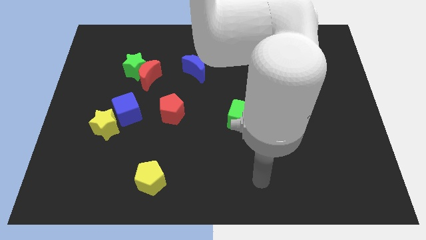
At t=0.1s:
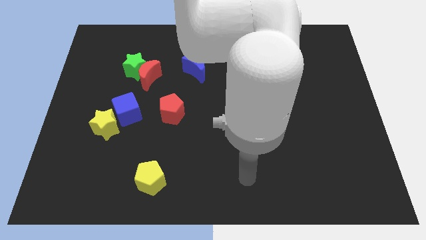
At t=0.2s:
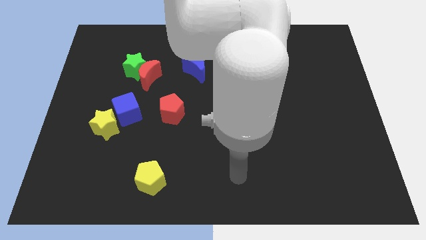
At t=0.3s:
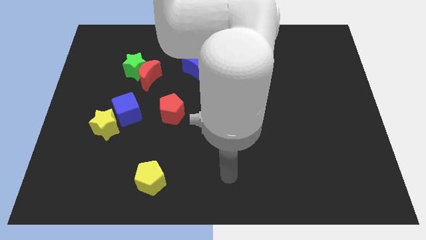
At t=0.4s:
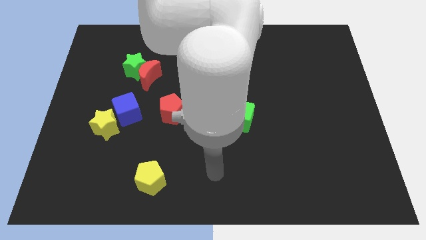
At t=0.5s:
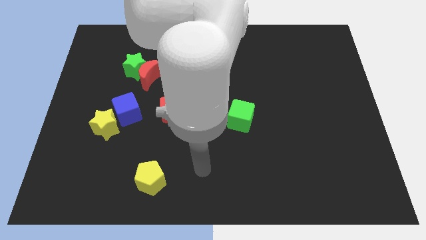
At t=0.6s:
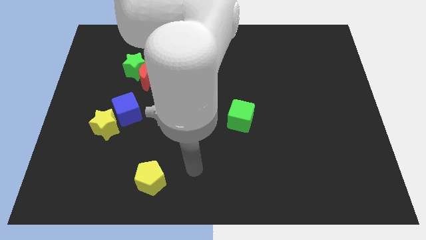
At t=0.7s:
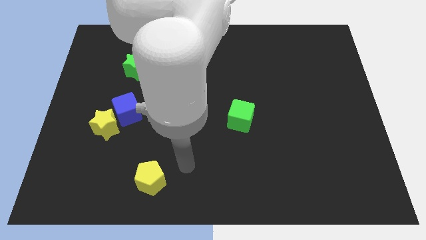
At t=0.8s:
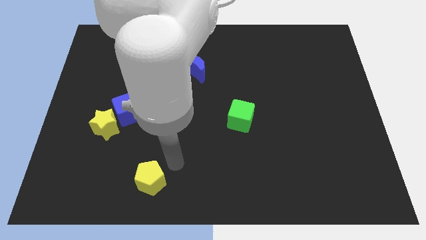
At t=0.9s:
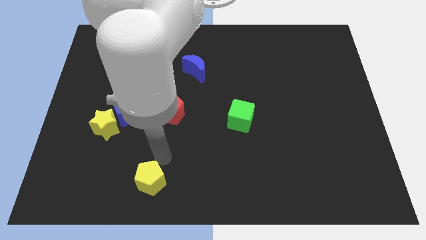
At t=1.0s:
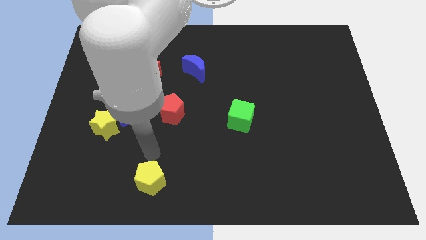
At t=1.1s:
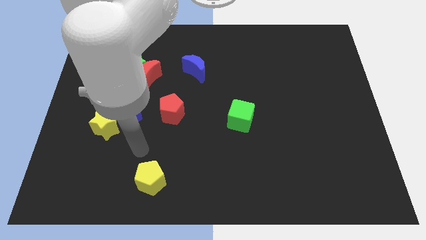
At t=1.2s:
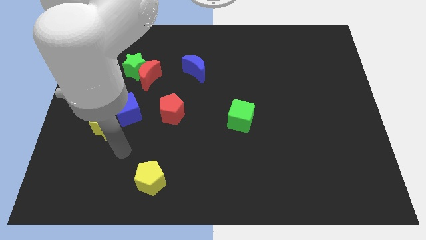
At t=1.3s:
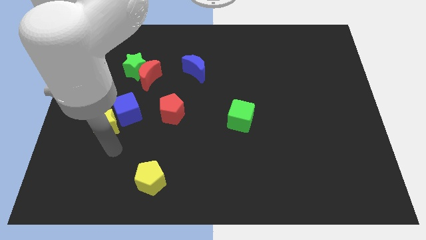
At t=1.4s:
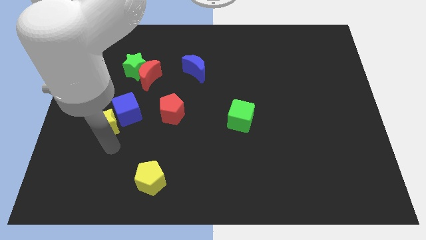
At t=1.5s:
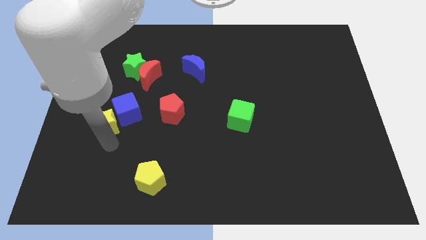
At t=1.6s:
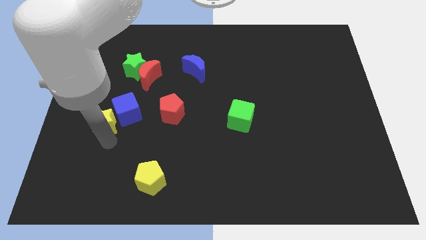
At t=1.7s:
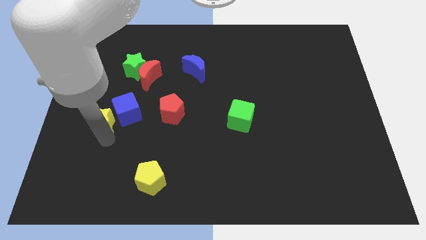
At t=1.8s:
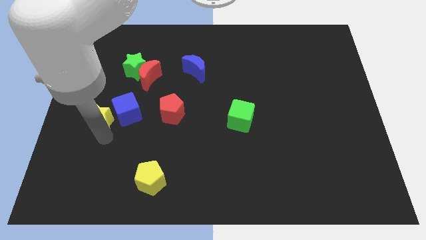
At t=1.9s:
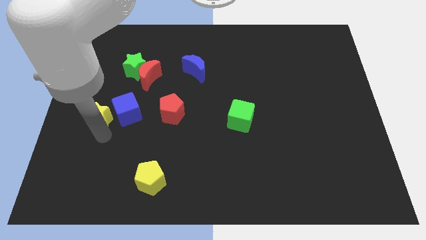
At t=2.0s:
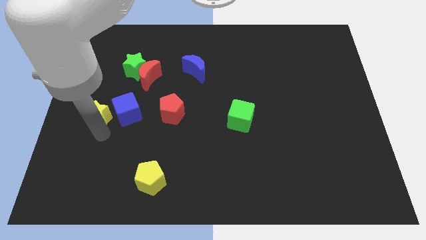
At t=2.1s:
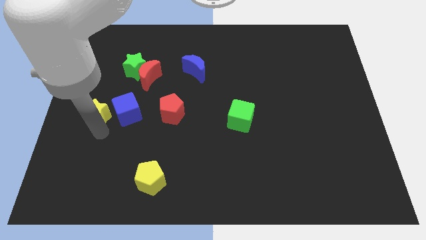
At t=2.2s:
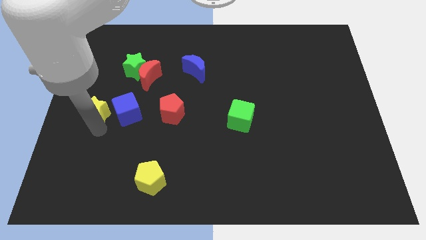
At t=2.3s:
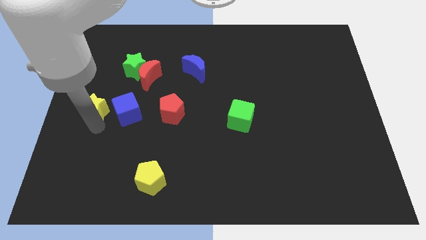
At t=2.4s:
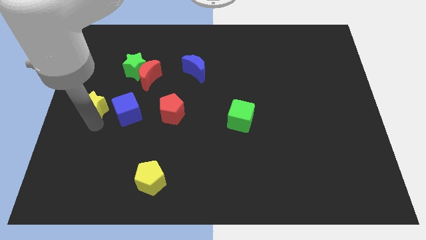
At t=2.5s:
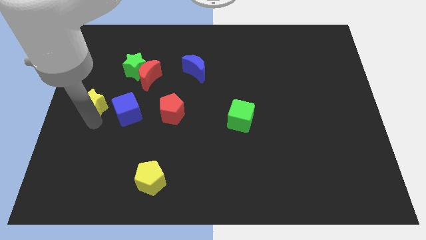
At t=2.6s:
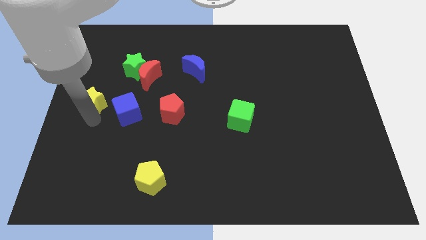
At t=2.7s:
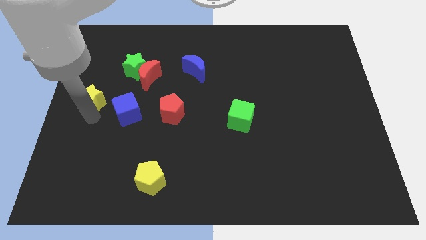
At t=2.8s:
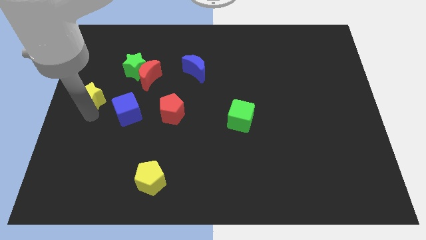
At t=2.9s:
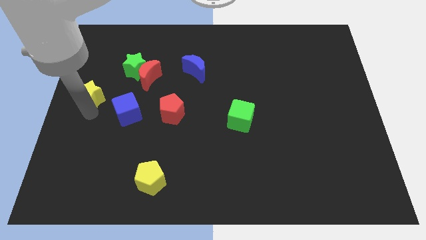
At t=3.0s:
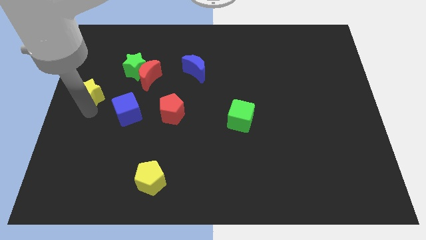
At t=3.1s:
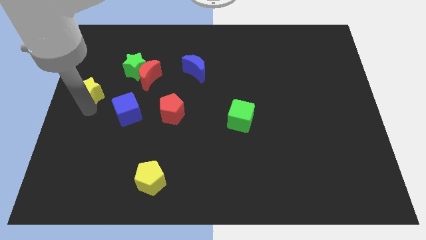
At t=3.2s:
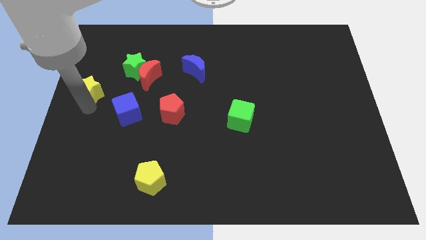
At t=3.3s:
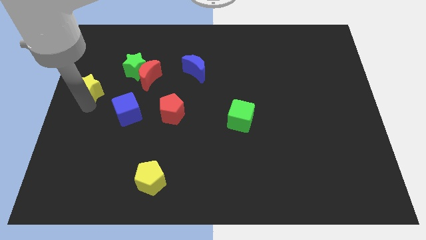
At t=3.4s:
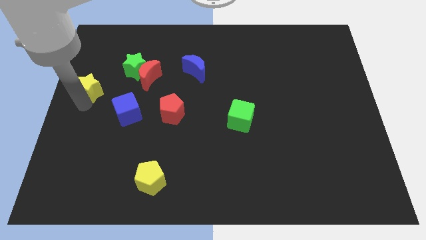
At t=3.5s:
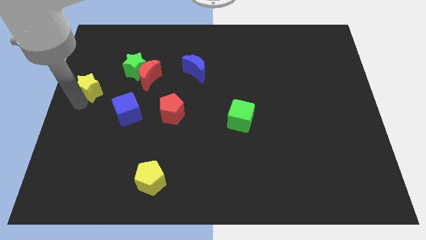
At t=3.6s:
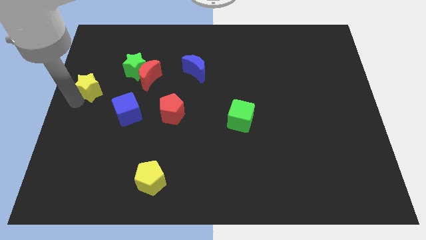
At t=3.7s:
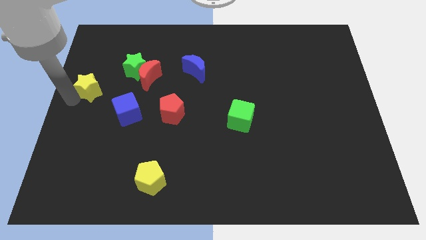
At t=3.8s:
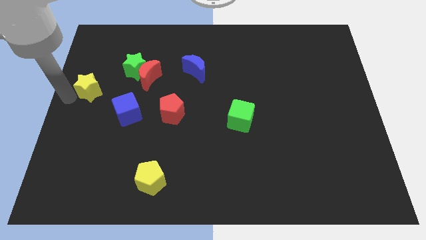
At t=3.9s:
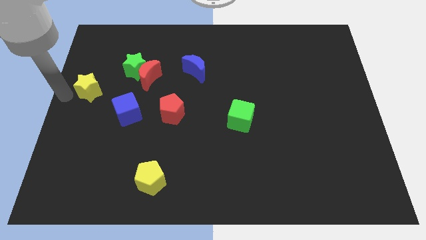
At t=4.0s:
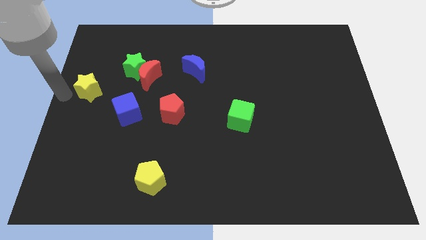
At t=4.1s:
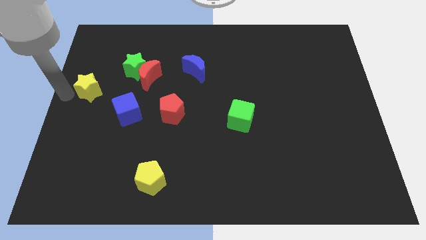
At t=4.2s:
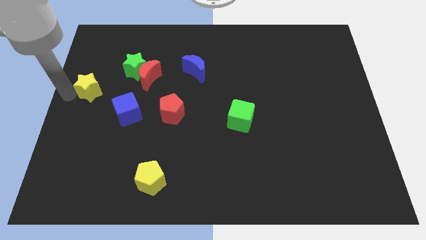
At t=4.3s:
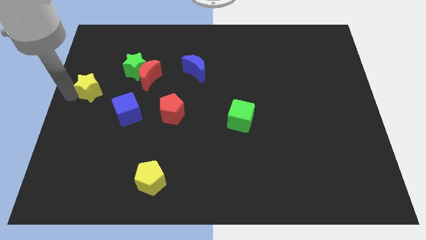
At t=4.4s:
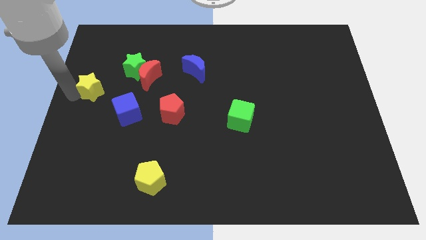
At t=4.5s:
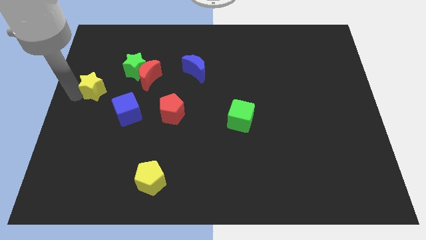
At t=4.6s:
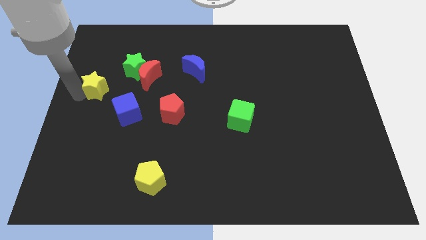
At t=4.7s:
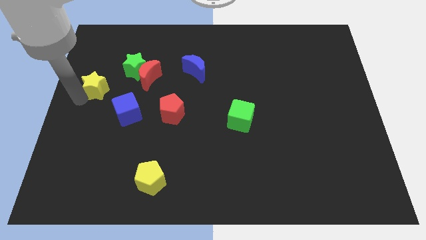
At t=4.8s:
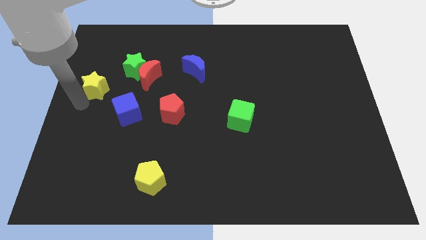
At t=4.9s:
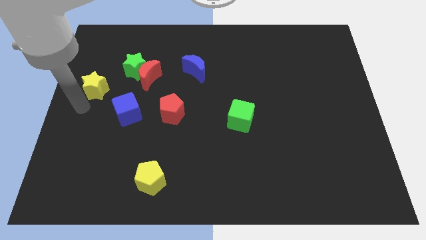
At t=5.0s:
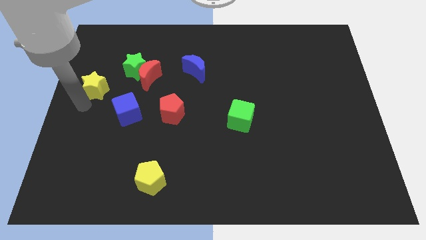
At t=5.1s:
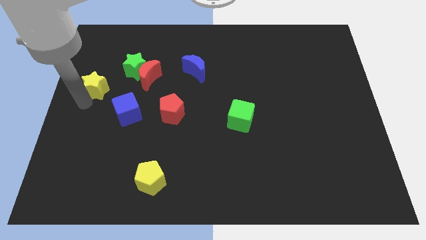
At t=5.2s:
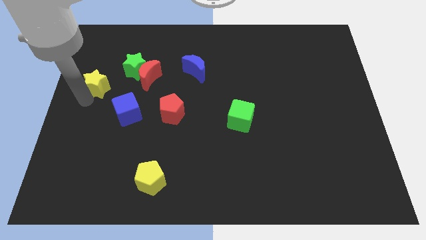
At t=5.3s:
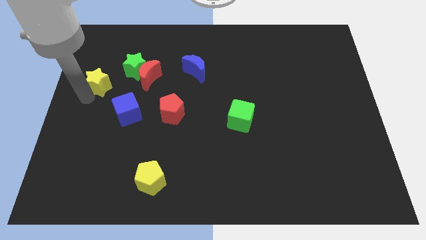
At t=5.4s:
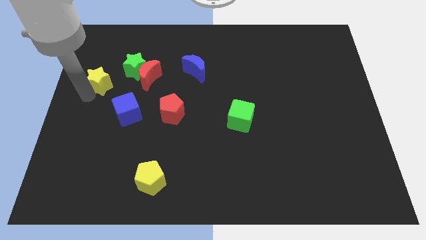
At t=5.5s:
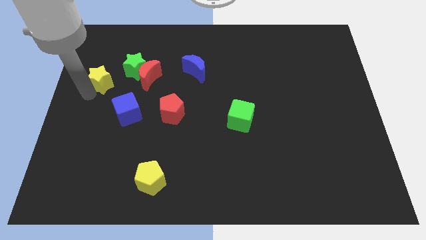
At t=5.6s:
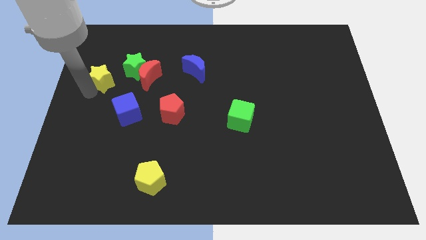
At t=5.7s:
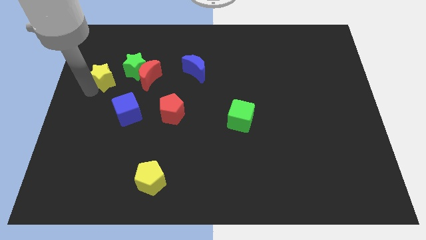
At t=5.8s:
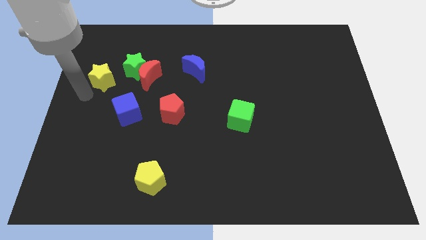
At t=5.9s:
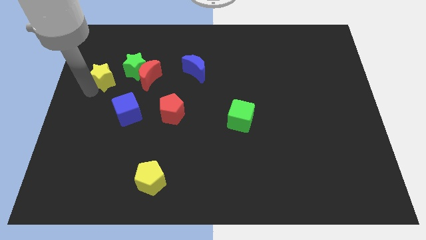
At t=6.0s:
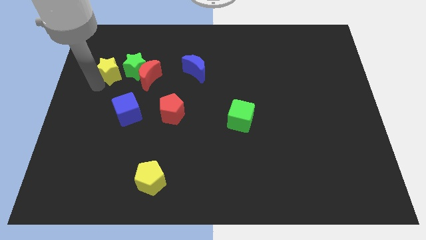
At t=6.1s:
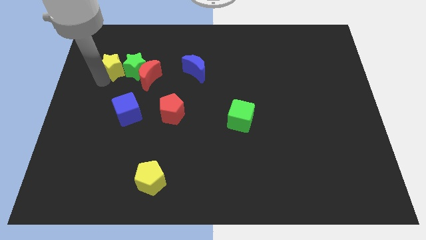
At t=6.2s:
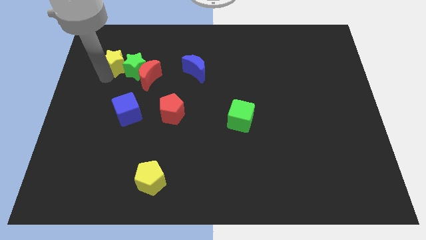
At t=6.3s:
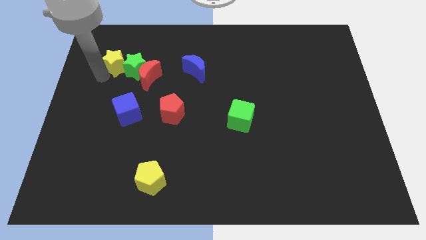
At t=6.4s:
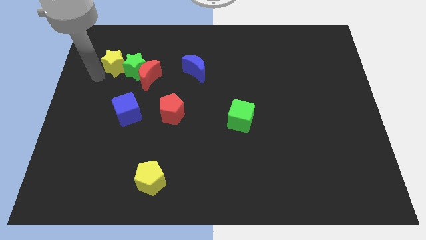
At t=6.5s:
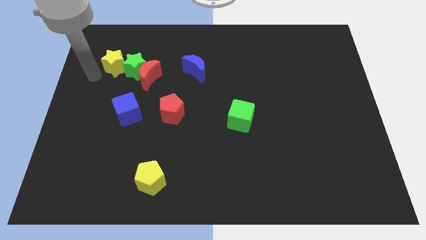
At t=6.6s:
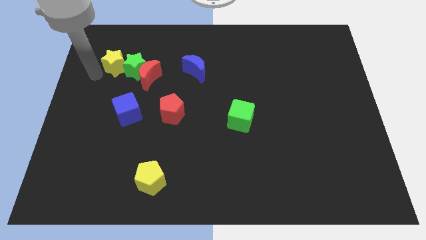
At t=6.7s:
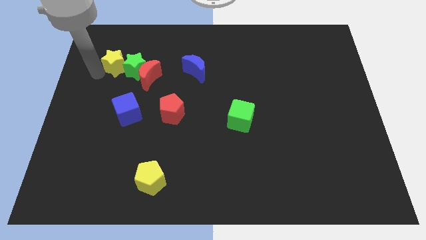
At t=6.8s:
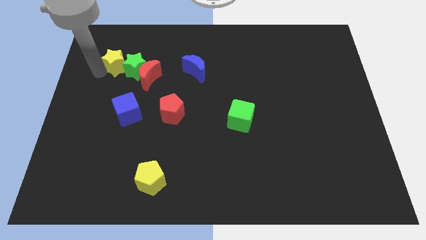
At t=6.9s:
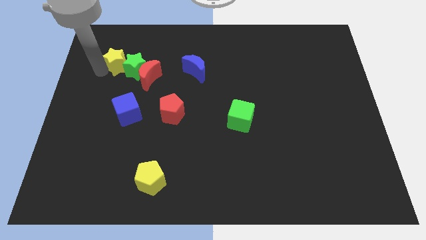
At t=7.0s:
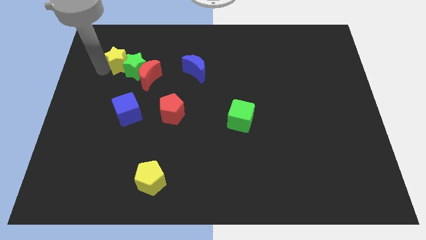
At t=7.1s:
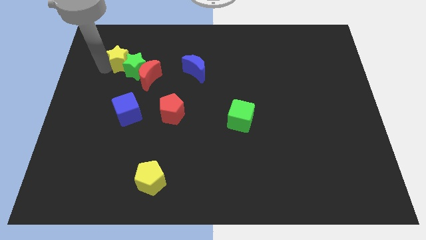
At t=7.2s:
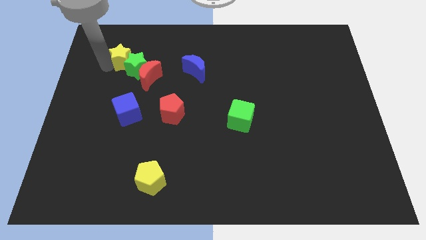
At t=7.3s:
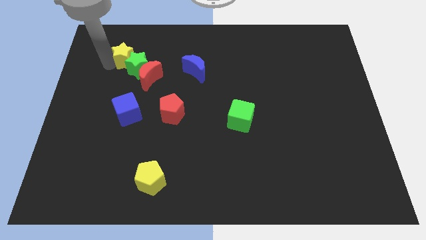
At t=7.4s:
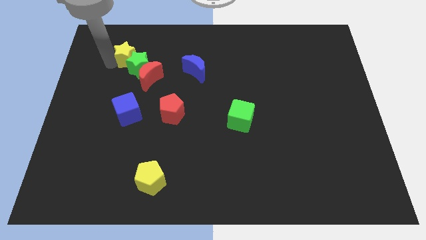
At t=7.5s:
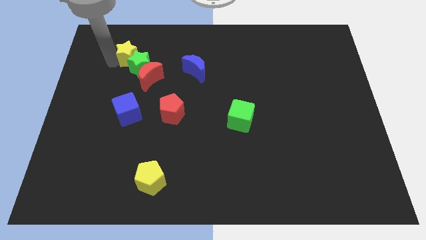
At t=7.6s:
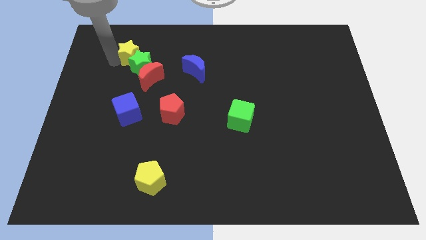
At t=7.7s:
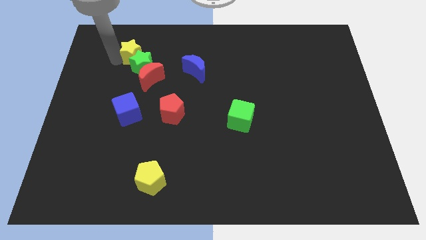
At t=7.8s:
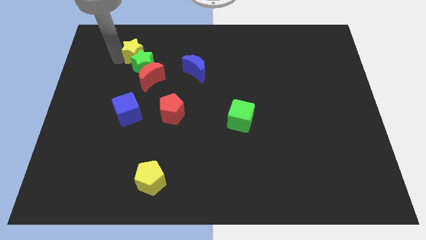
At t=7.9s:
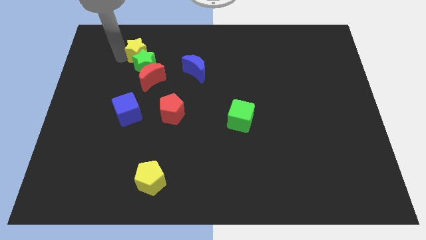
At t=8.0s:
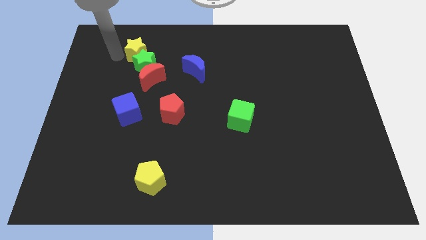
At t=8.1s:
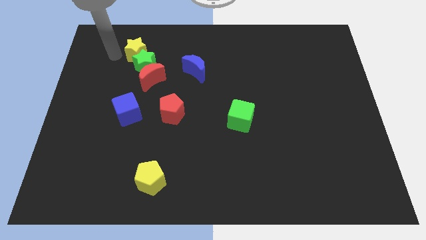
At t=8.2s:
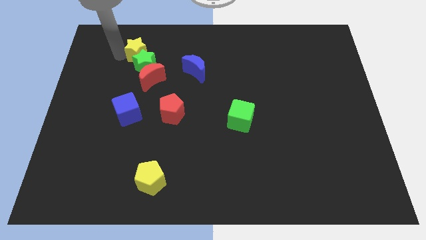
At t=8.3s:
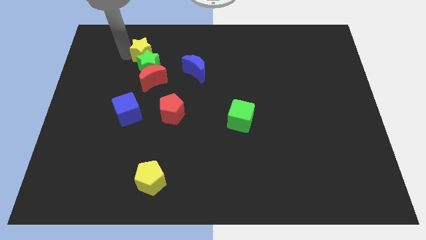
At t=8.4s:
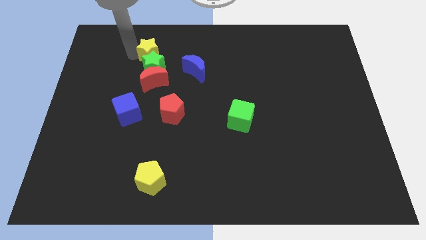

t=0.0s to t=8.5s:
slide the yellow star to the top right side of the green star
